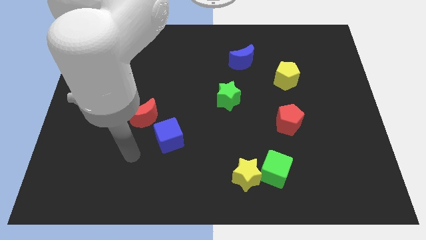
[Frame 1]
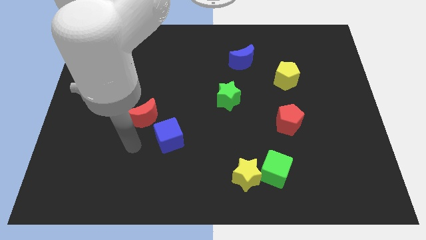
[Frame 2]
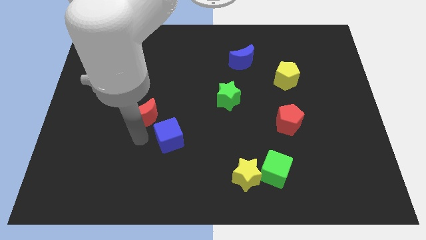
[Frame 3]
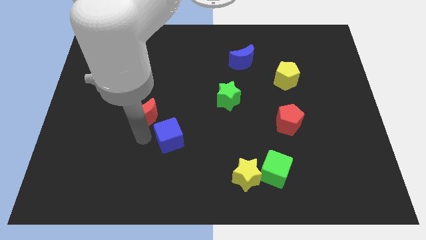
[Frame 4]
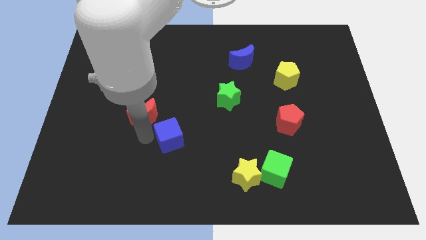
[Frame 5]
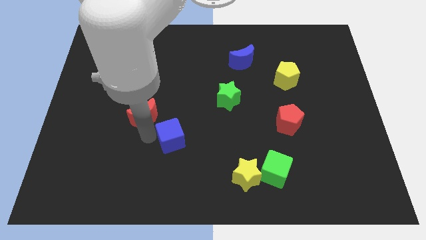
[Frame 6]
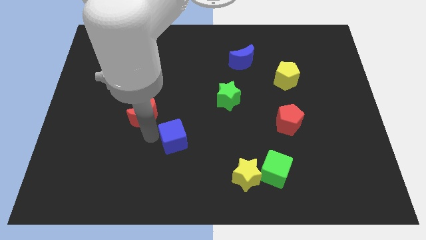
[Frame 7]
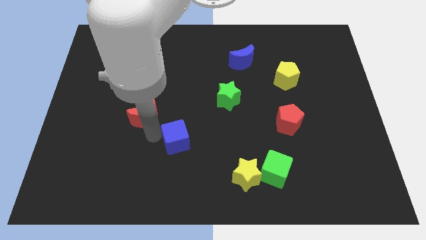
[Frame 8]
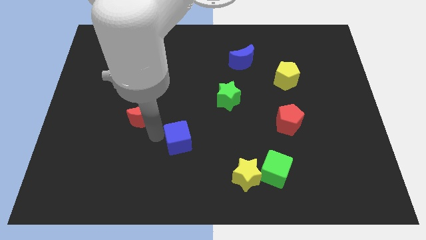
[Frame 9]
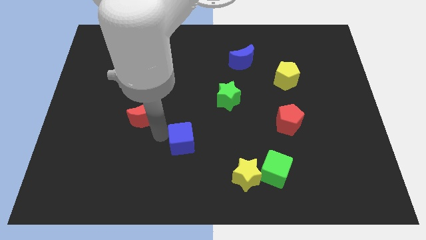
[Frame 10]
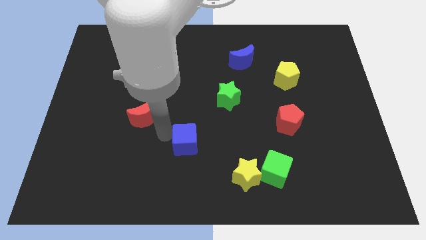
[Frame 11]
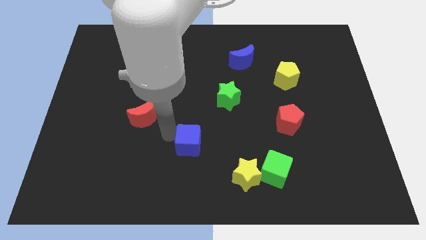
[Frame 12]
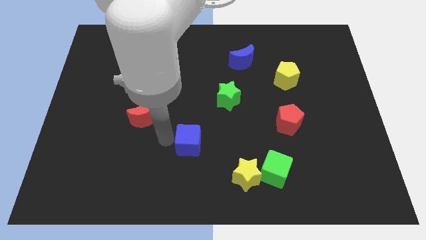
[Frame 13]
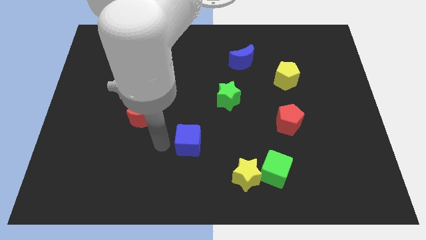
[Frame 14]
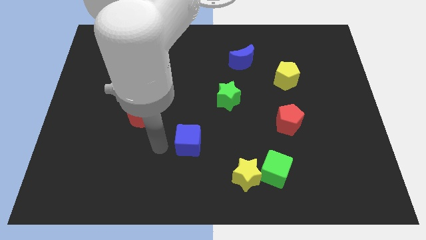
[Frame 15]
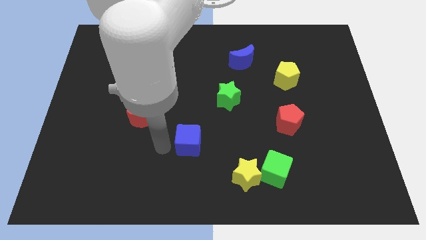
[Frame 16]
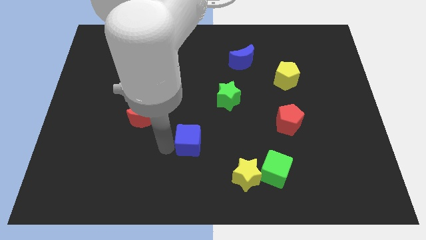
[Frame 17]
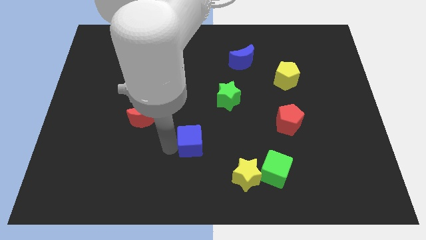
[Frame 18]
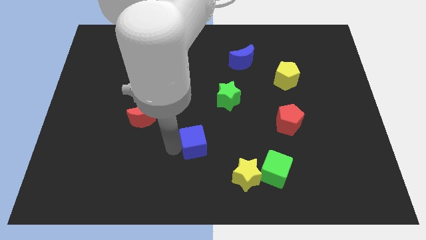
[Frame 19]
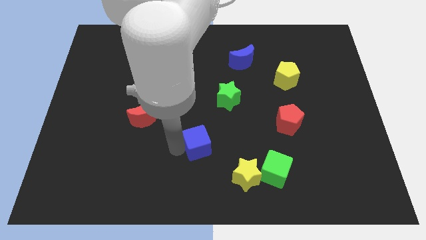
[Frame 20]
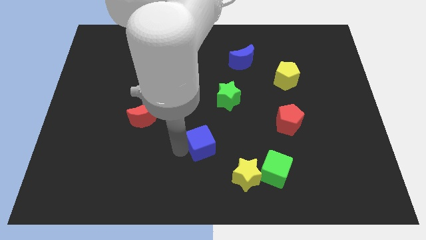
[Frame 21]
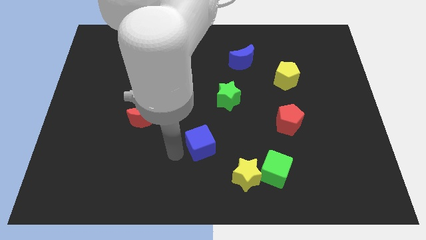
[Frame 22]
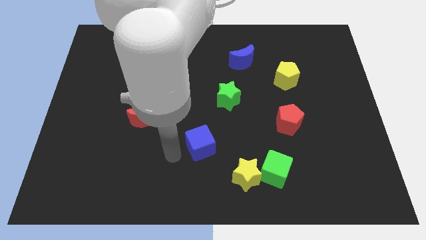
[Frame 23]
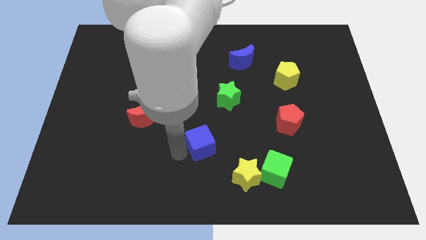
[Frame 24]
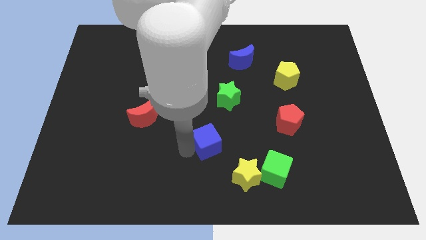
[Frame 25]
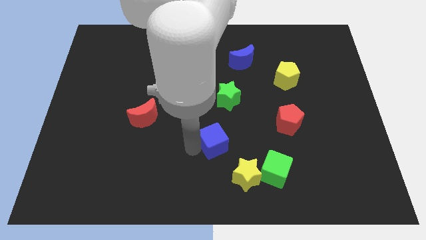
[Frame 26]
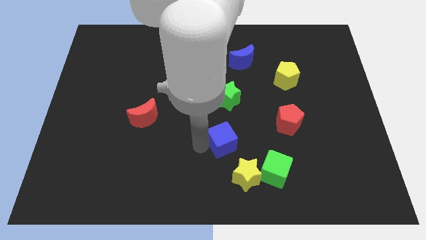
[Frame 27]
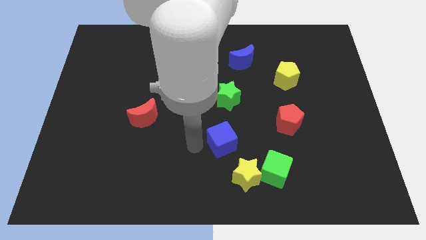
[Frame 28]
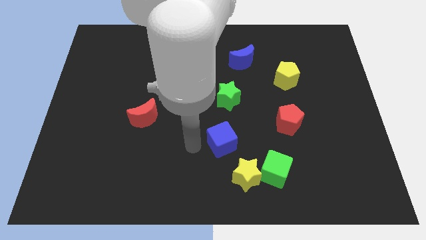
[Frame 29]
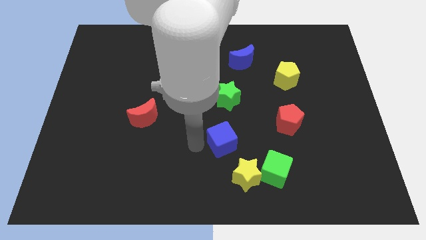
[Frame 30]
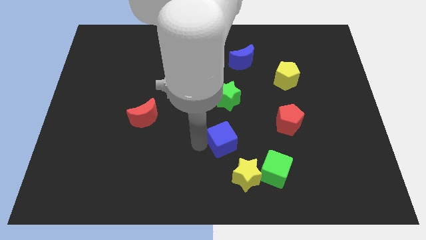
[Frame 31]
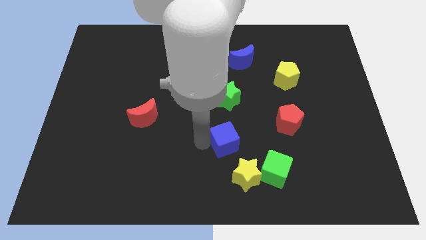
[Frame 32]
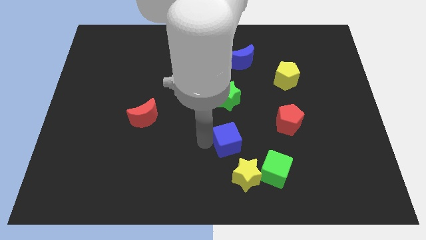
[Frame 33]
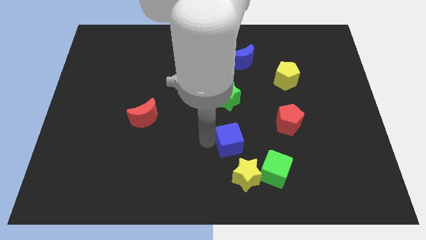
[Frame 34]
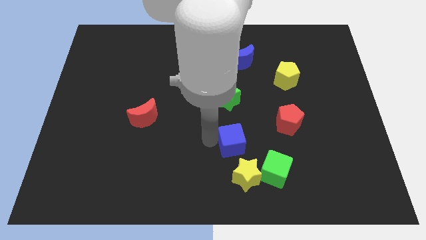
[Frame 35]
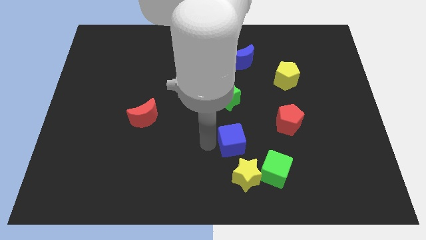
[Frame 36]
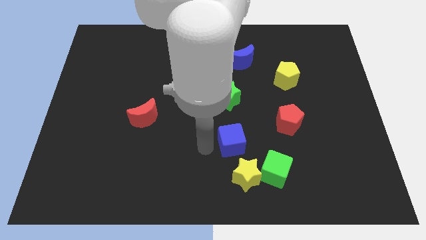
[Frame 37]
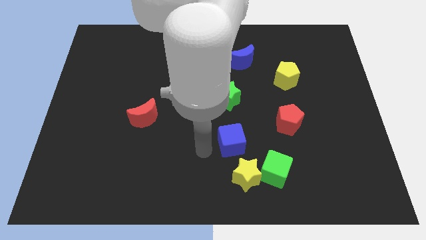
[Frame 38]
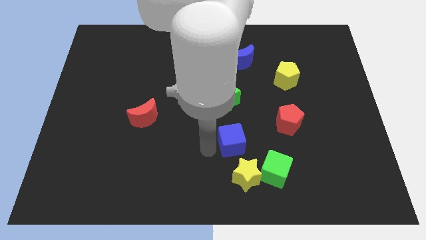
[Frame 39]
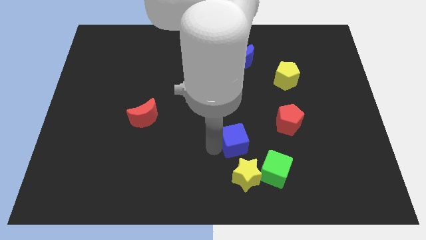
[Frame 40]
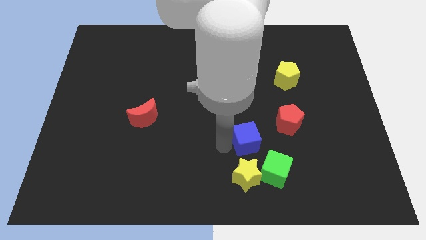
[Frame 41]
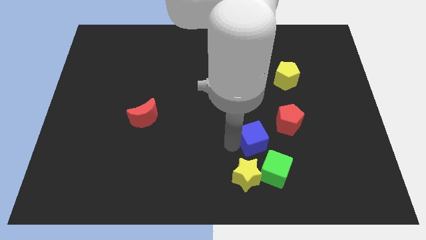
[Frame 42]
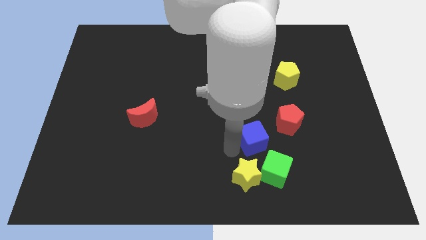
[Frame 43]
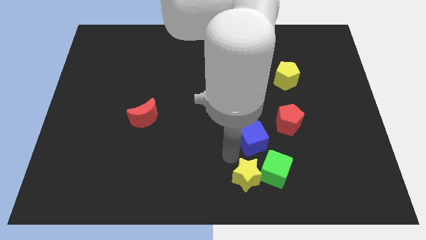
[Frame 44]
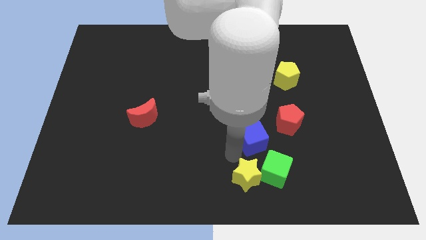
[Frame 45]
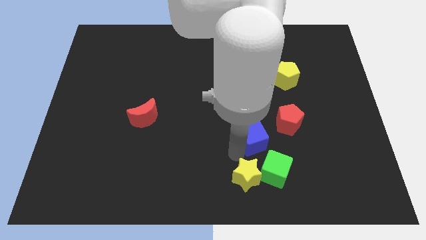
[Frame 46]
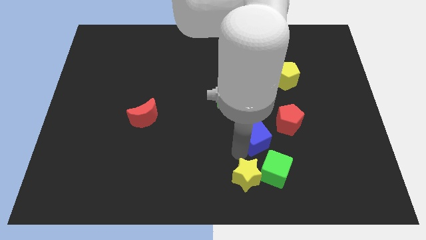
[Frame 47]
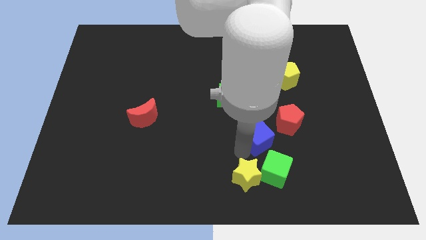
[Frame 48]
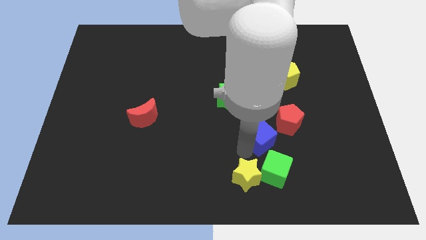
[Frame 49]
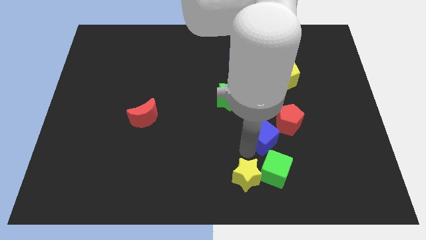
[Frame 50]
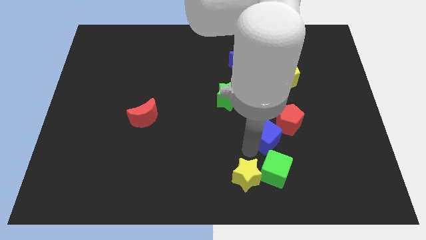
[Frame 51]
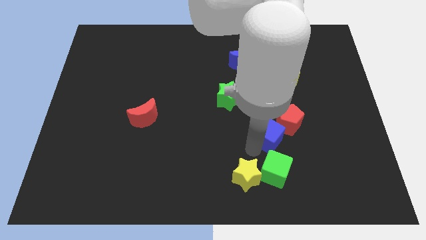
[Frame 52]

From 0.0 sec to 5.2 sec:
slide the blue cube towards the red pentagon

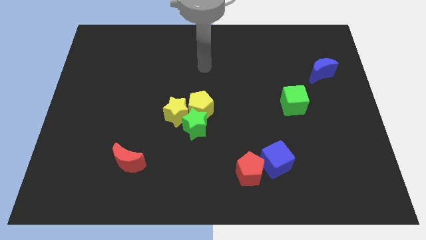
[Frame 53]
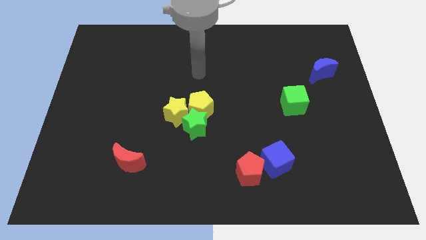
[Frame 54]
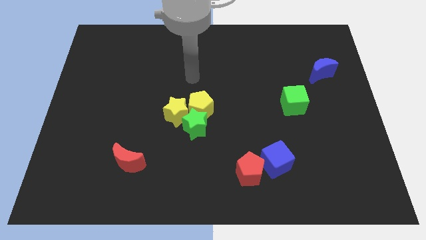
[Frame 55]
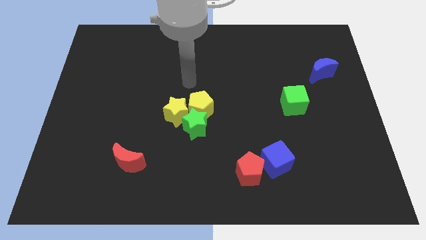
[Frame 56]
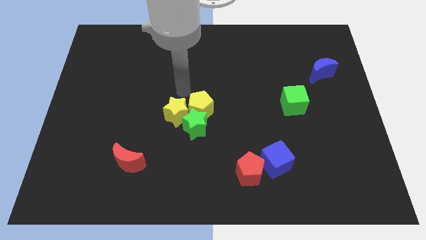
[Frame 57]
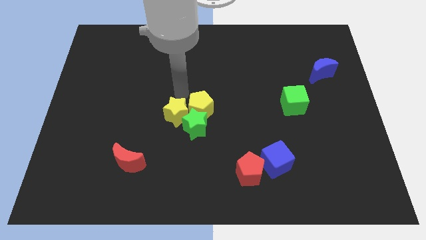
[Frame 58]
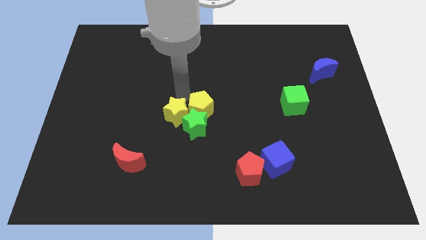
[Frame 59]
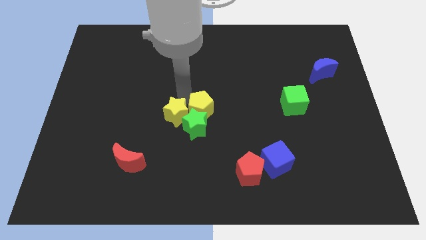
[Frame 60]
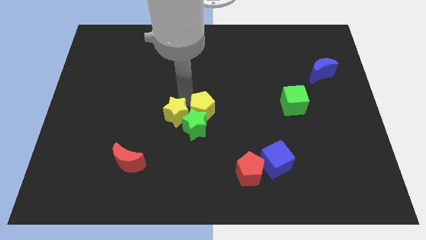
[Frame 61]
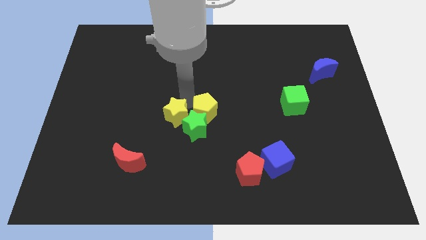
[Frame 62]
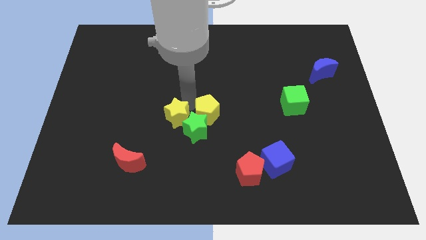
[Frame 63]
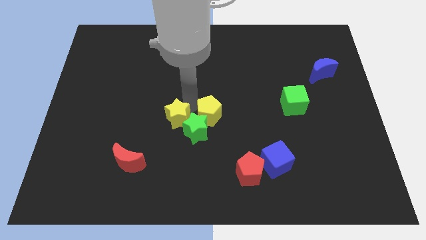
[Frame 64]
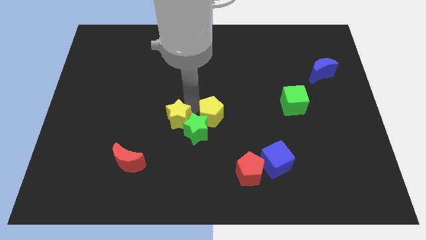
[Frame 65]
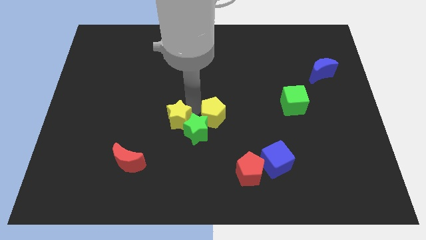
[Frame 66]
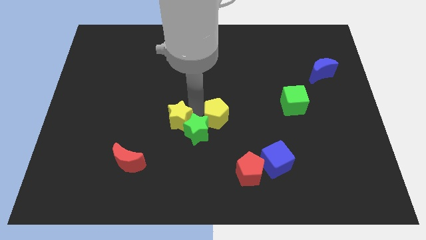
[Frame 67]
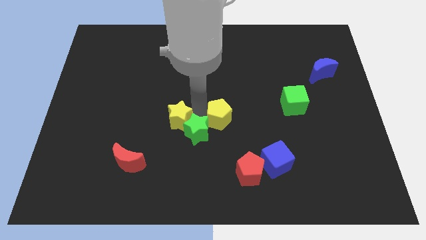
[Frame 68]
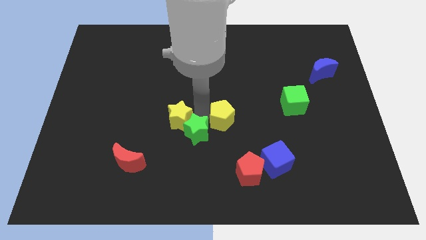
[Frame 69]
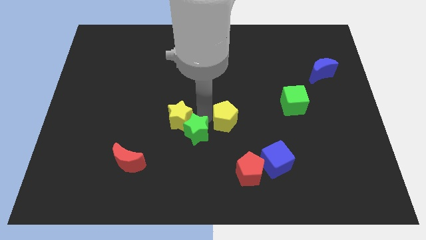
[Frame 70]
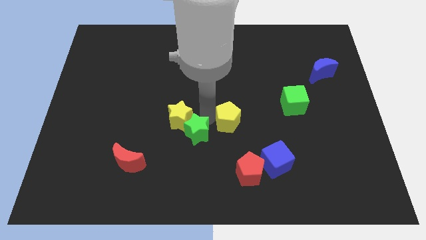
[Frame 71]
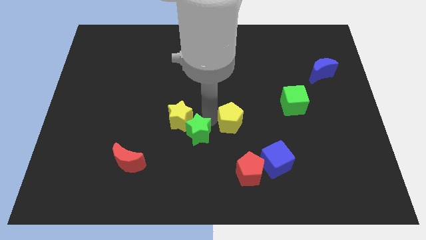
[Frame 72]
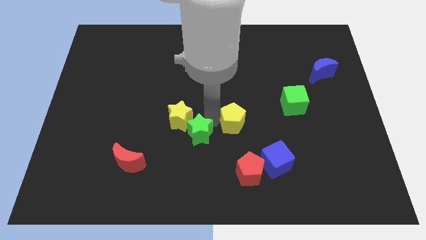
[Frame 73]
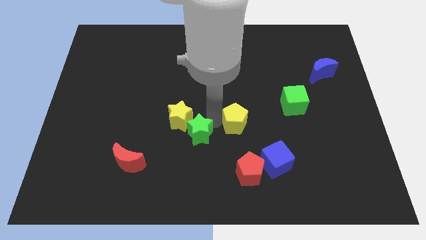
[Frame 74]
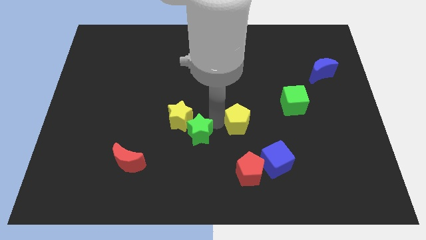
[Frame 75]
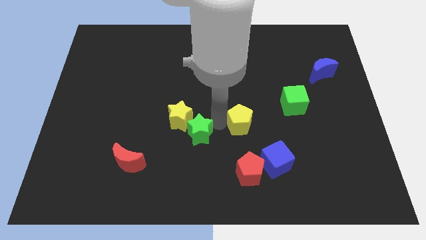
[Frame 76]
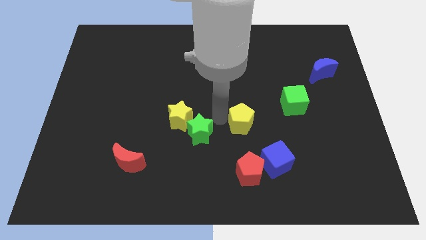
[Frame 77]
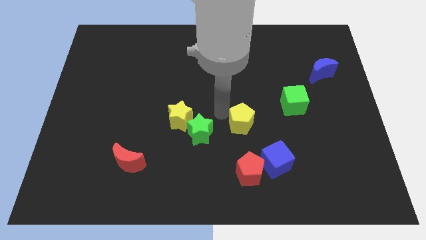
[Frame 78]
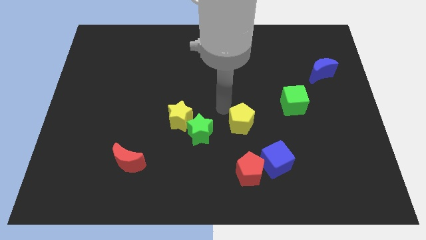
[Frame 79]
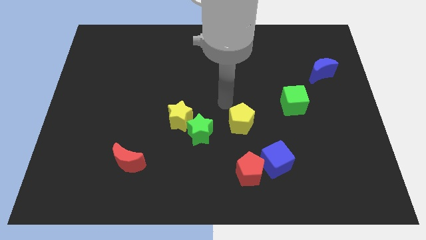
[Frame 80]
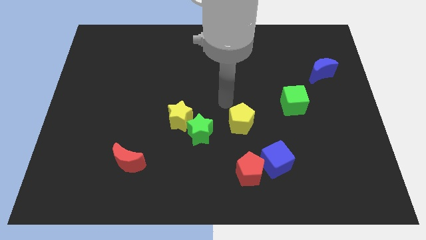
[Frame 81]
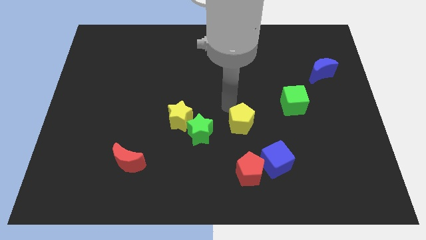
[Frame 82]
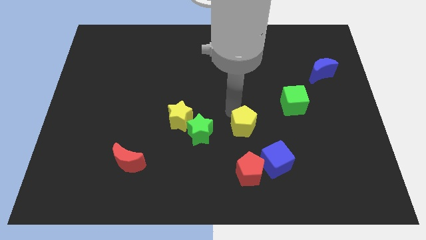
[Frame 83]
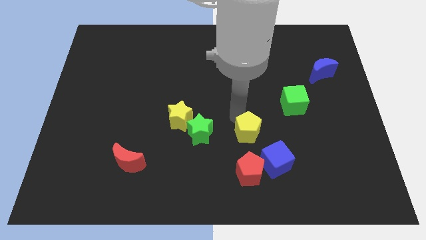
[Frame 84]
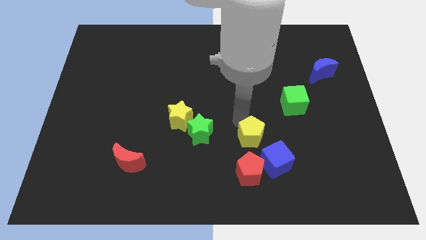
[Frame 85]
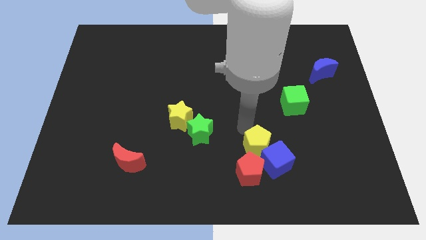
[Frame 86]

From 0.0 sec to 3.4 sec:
move the yellow pentagon towards the blue cube
